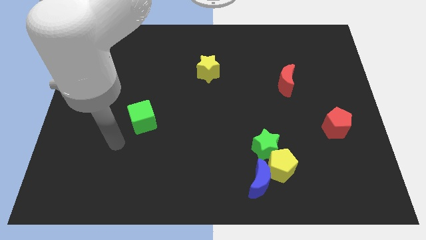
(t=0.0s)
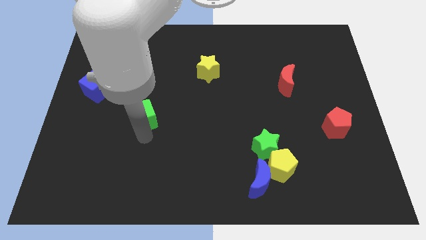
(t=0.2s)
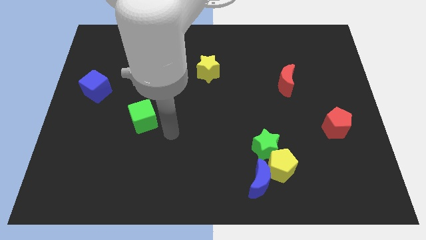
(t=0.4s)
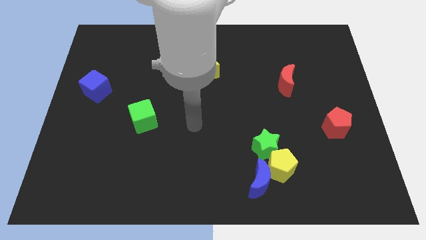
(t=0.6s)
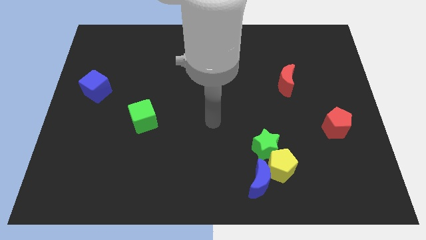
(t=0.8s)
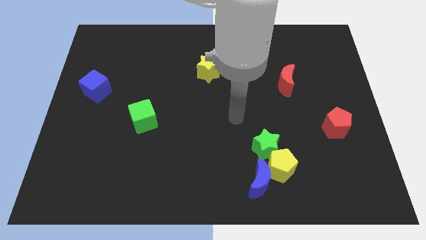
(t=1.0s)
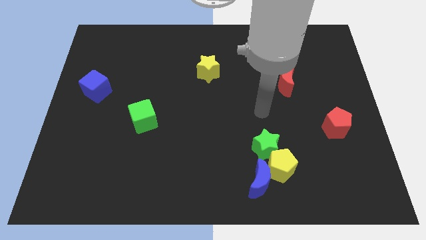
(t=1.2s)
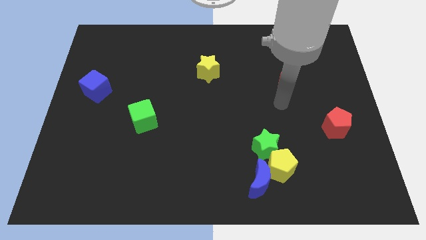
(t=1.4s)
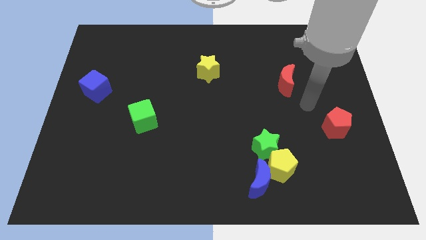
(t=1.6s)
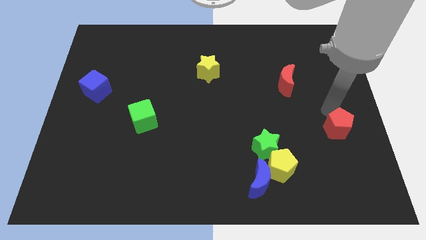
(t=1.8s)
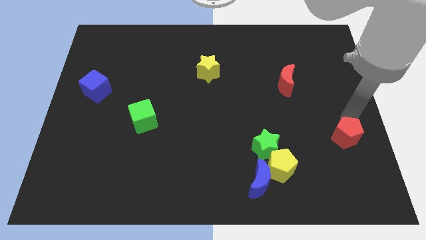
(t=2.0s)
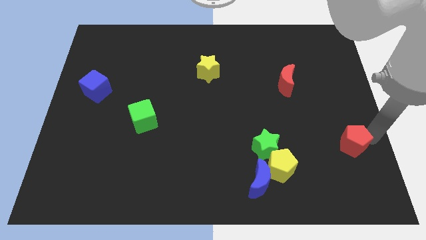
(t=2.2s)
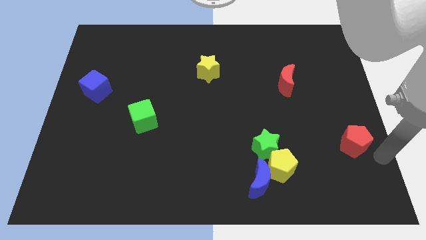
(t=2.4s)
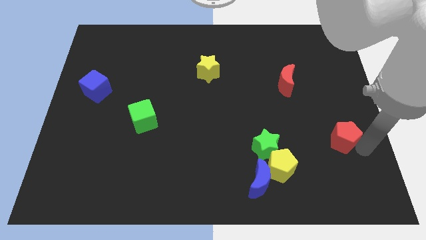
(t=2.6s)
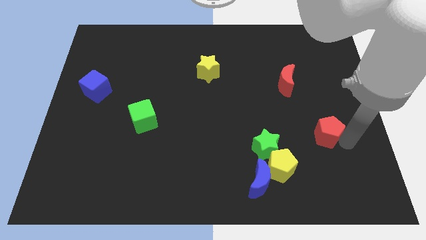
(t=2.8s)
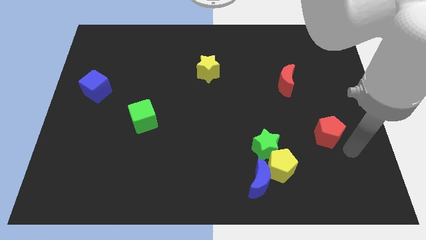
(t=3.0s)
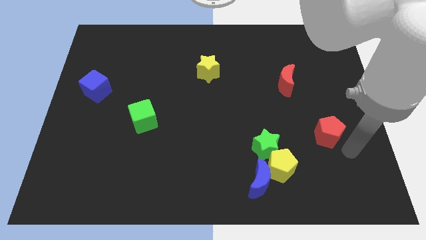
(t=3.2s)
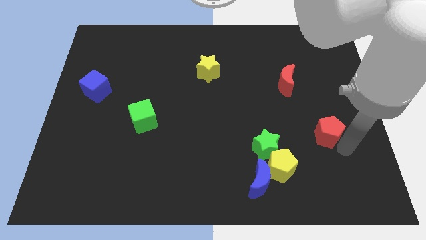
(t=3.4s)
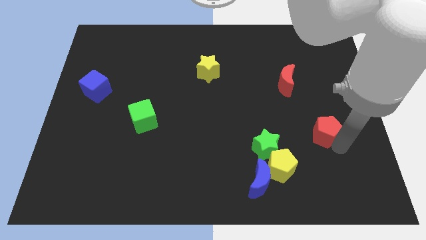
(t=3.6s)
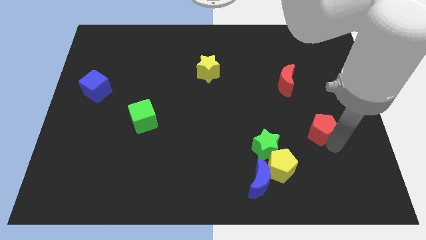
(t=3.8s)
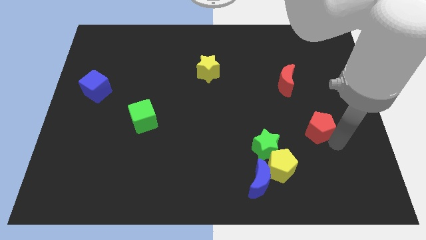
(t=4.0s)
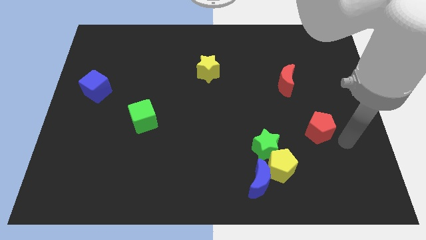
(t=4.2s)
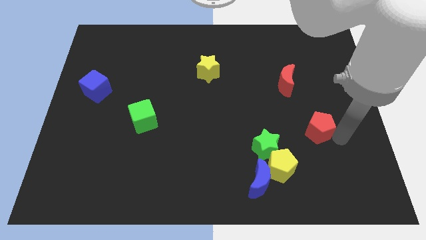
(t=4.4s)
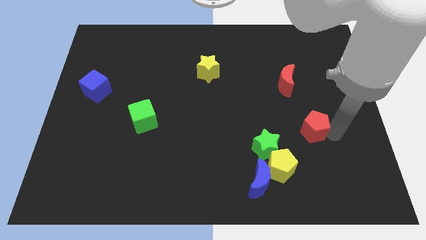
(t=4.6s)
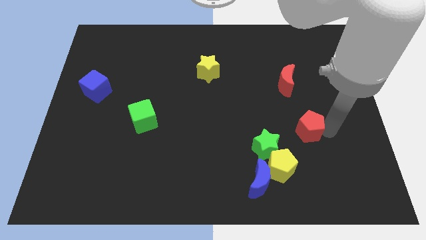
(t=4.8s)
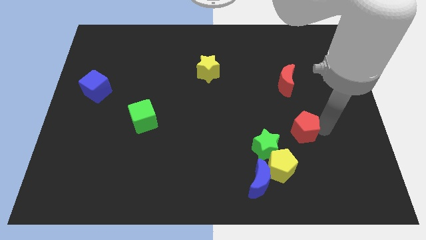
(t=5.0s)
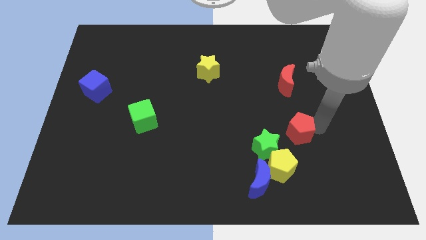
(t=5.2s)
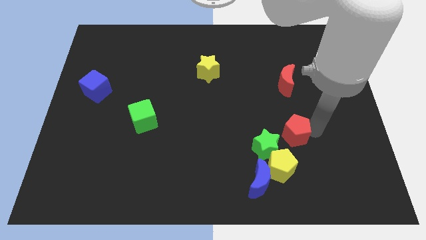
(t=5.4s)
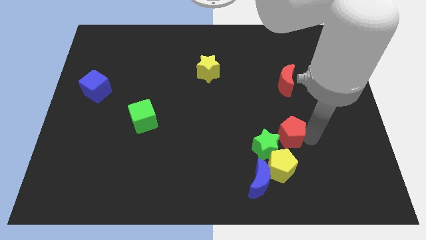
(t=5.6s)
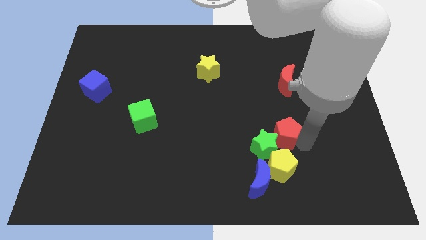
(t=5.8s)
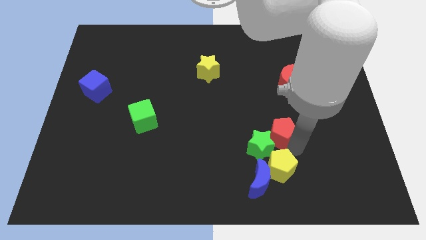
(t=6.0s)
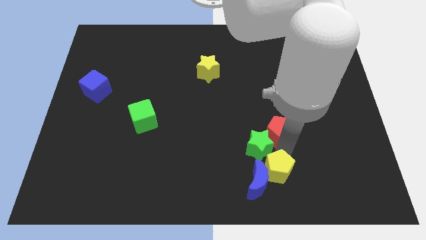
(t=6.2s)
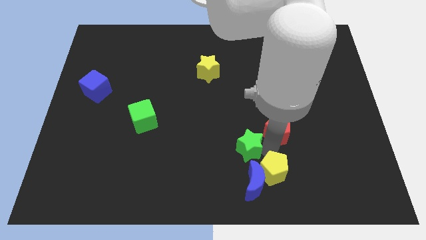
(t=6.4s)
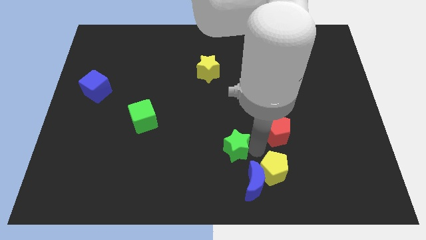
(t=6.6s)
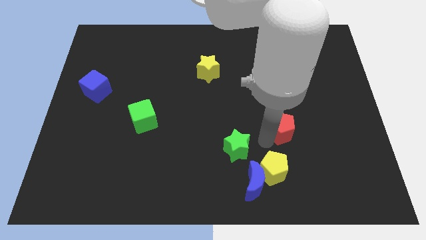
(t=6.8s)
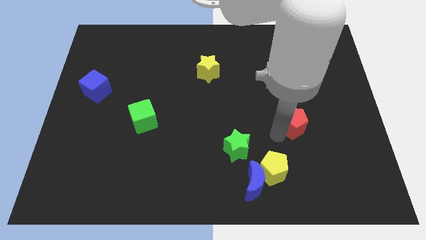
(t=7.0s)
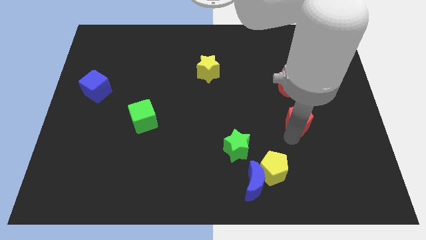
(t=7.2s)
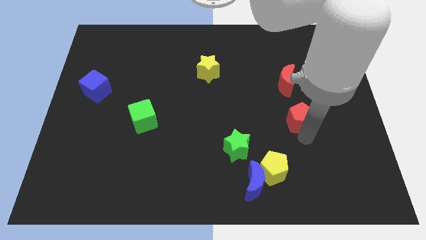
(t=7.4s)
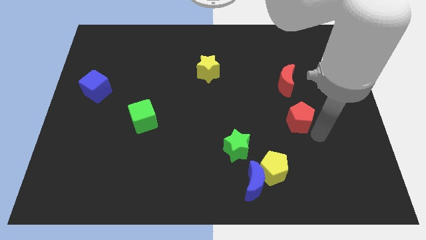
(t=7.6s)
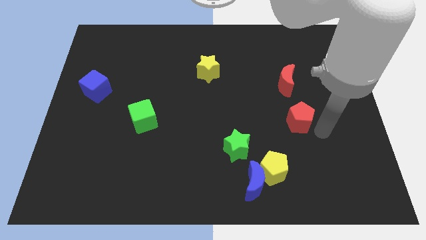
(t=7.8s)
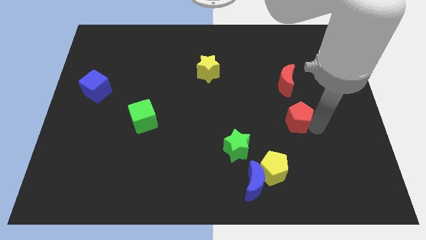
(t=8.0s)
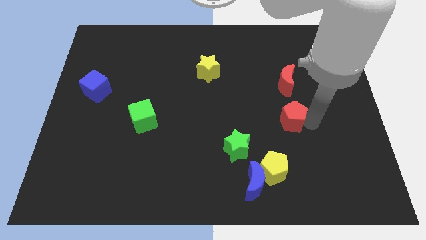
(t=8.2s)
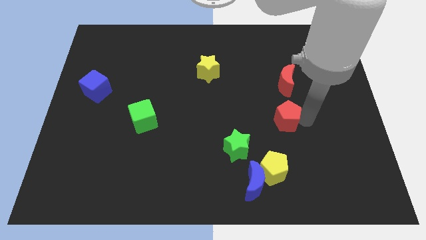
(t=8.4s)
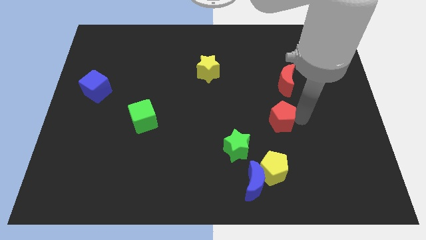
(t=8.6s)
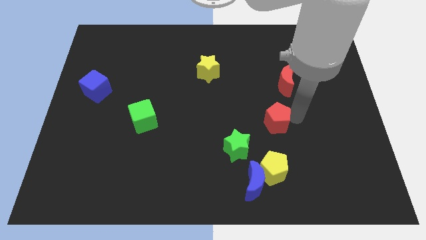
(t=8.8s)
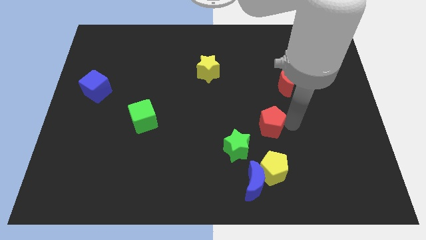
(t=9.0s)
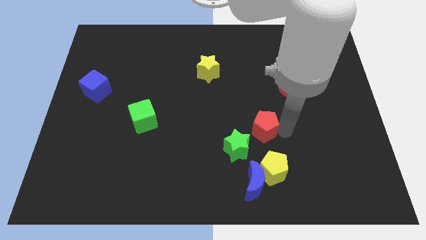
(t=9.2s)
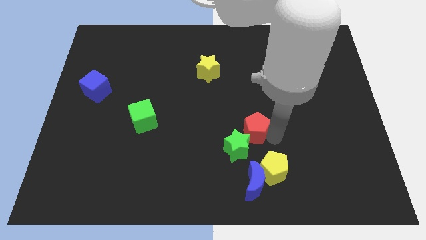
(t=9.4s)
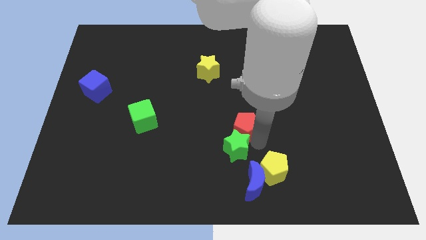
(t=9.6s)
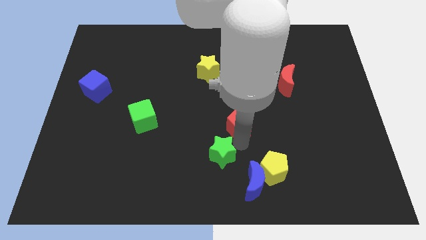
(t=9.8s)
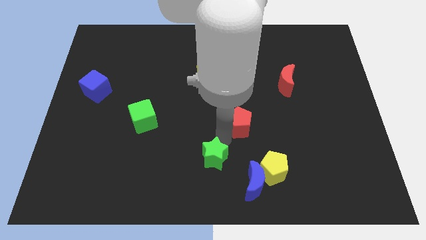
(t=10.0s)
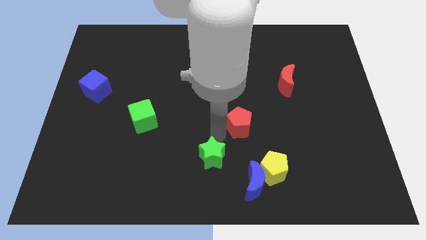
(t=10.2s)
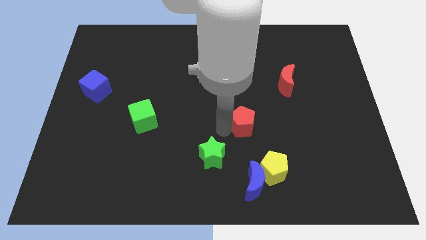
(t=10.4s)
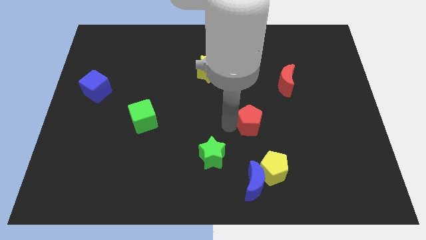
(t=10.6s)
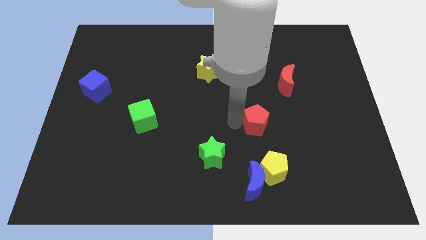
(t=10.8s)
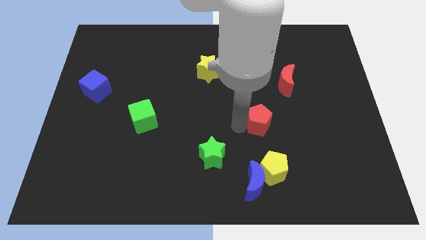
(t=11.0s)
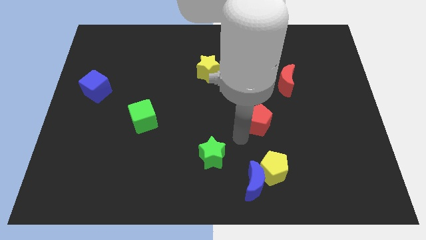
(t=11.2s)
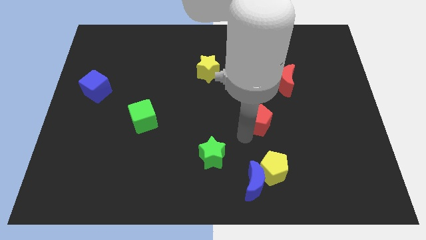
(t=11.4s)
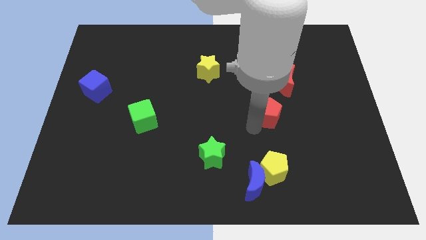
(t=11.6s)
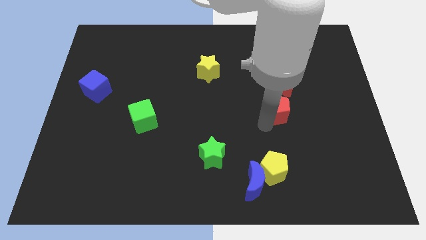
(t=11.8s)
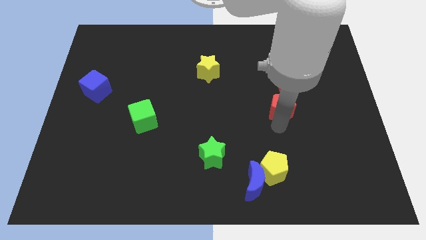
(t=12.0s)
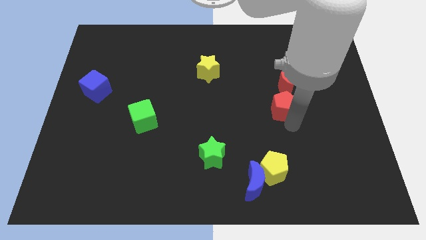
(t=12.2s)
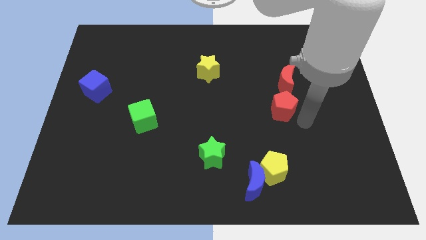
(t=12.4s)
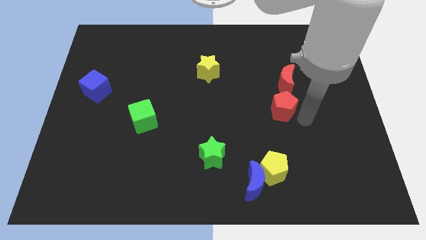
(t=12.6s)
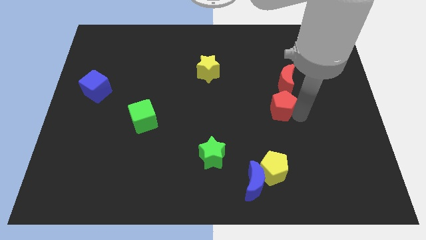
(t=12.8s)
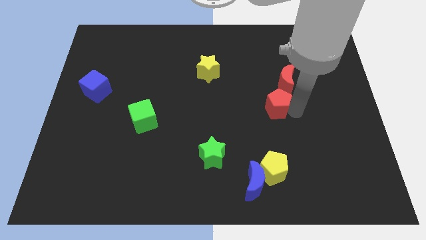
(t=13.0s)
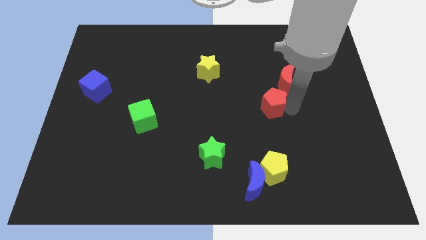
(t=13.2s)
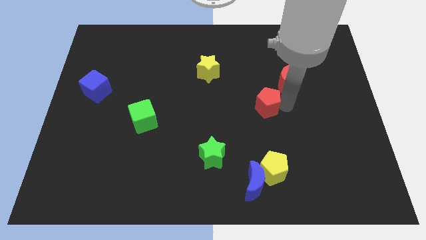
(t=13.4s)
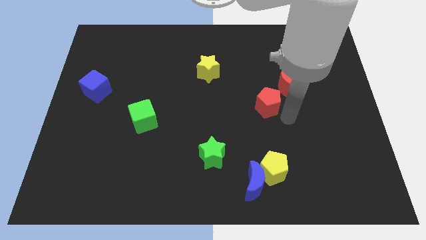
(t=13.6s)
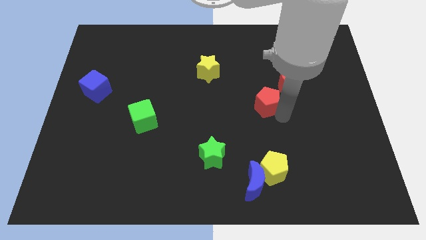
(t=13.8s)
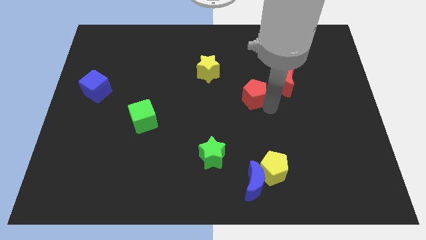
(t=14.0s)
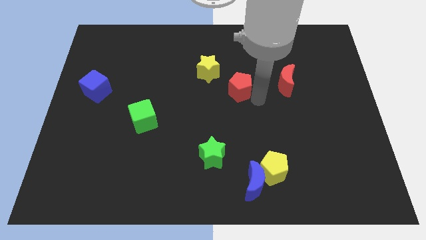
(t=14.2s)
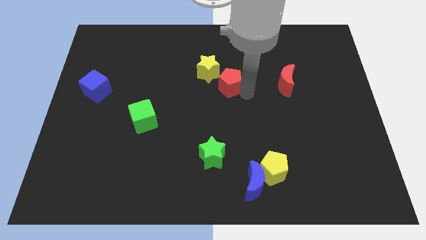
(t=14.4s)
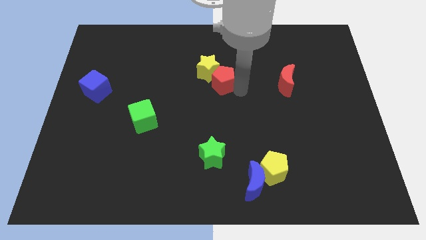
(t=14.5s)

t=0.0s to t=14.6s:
move the red pentagon next to the yellow star
